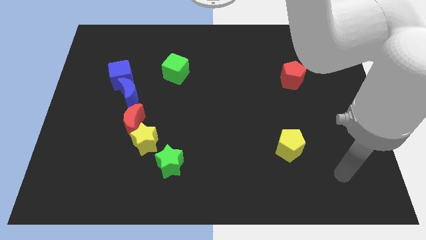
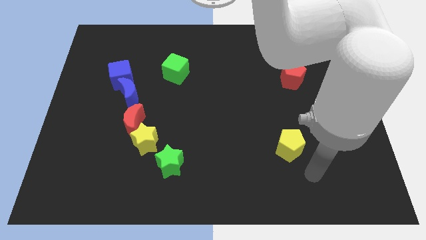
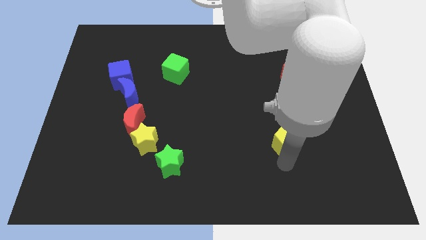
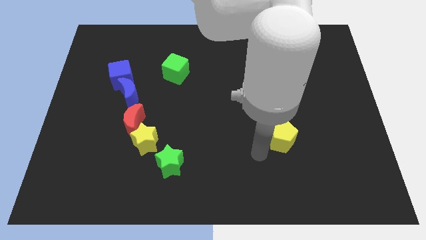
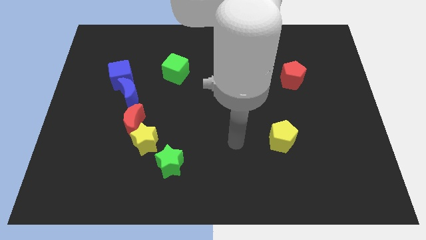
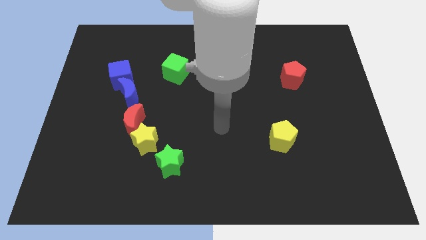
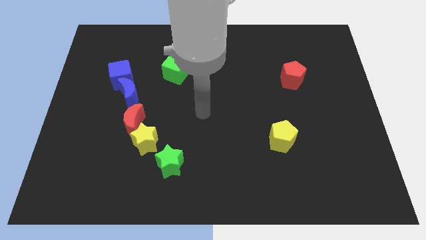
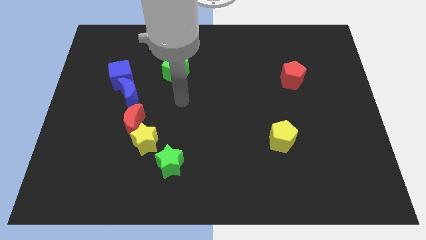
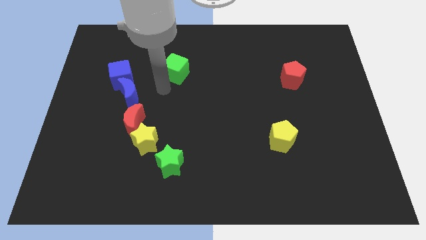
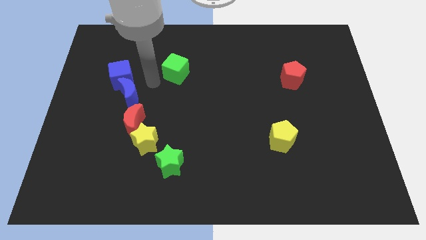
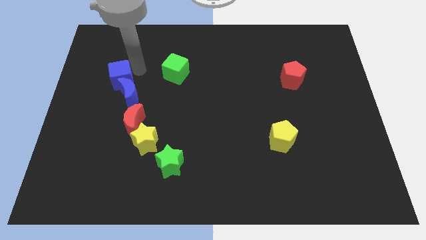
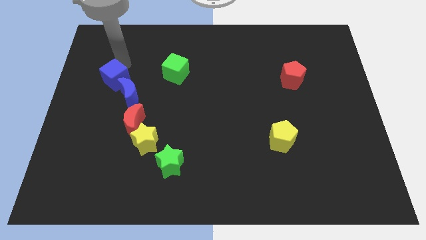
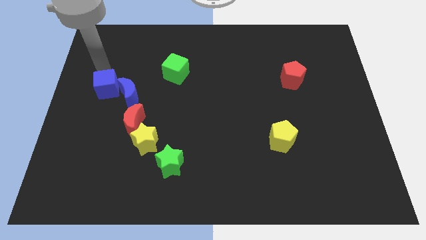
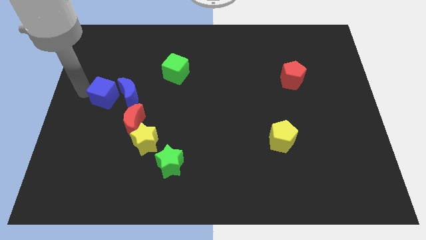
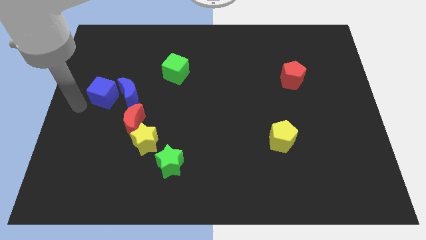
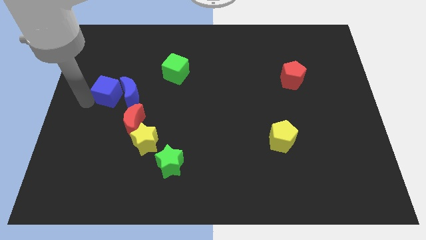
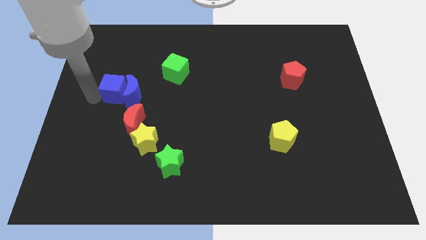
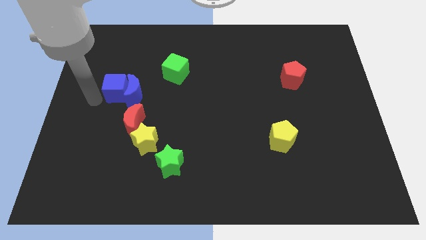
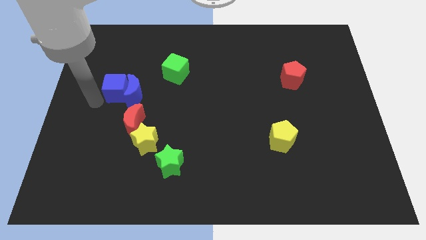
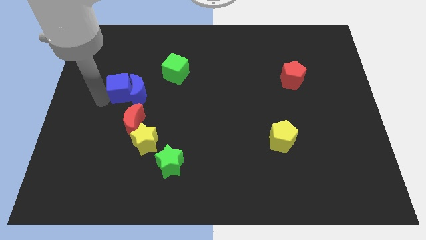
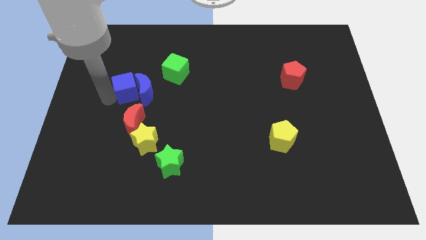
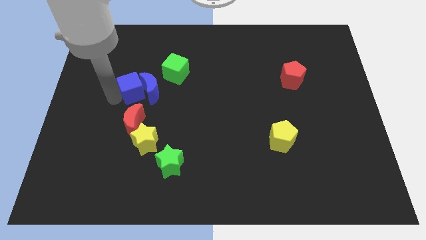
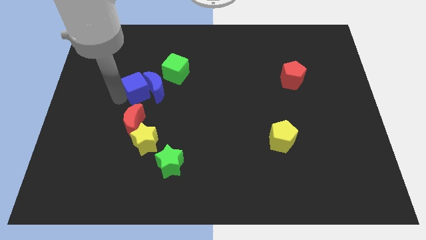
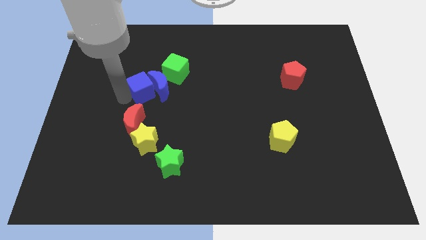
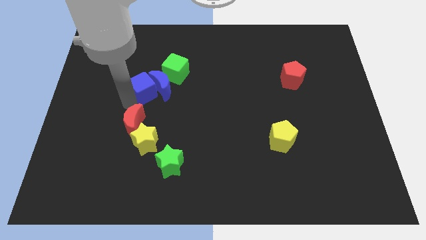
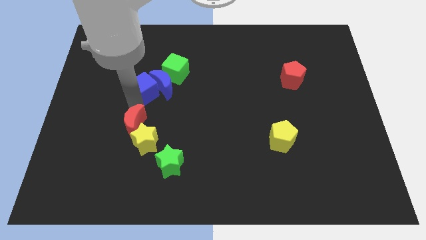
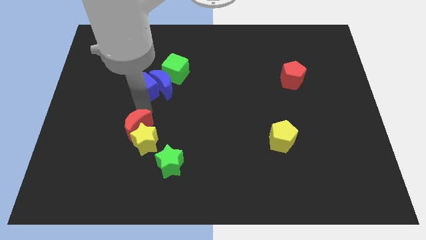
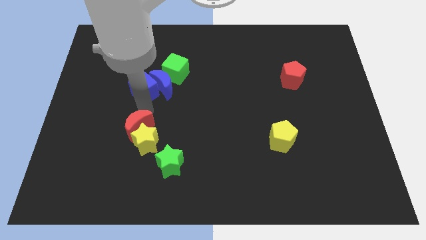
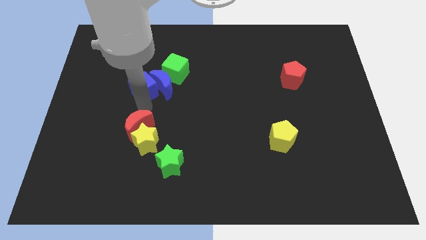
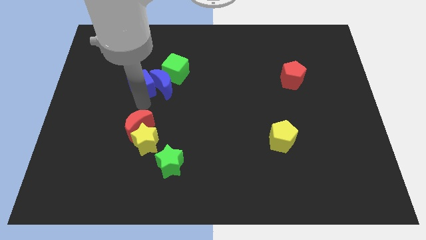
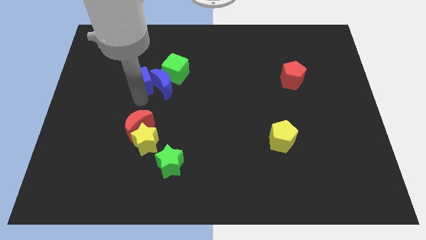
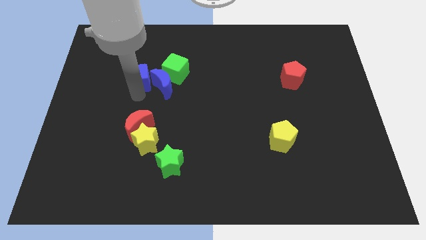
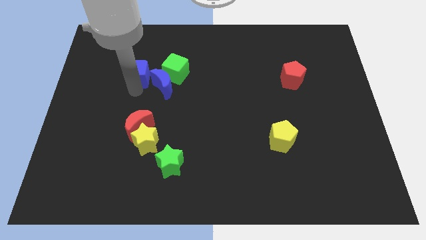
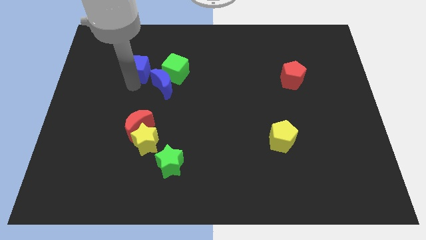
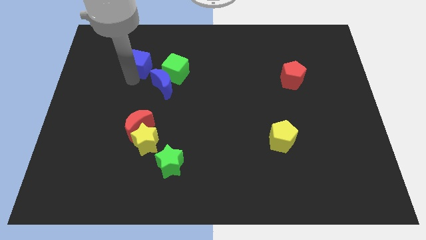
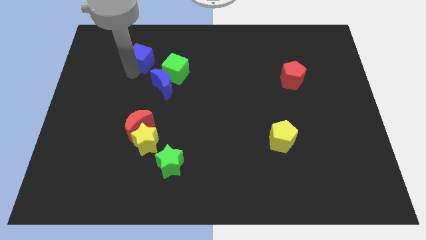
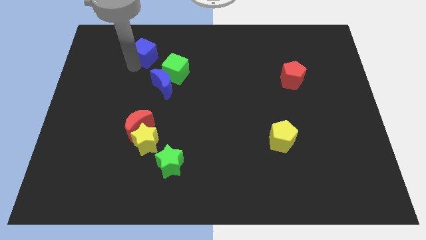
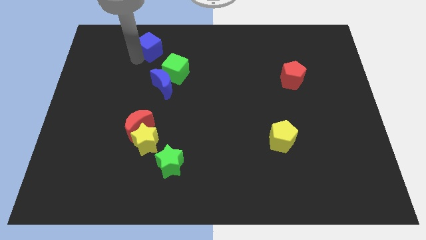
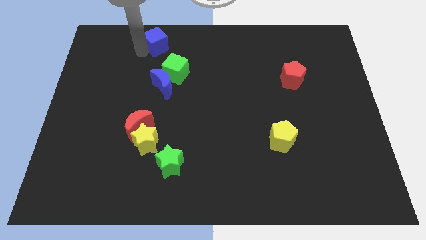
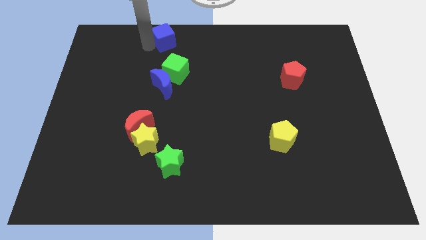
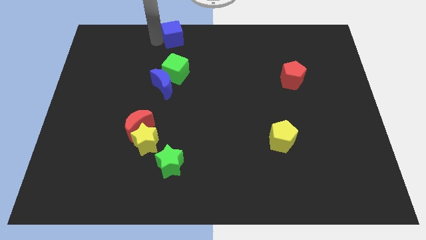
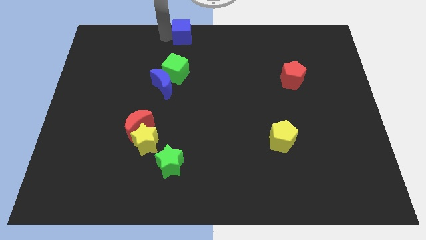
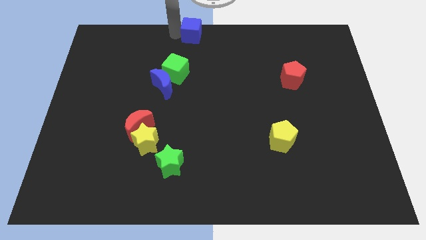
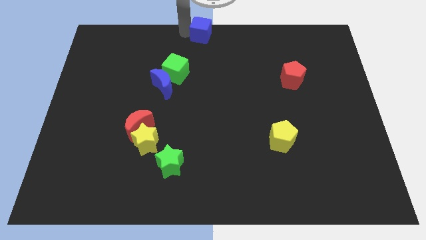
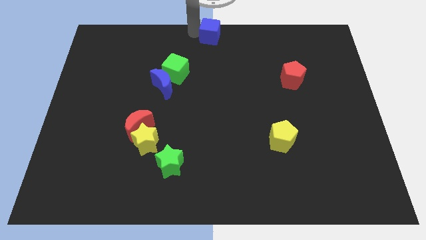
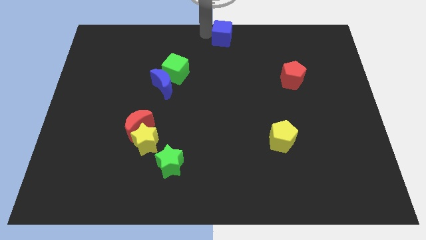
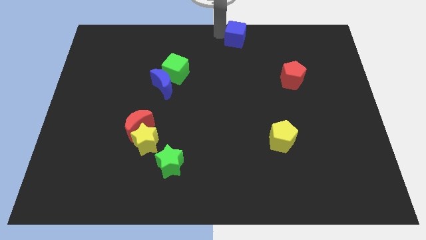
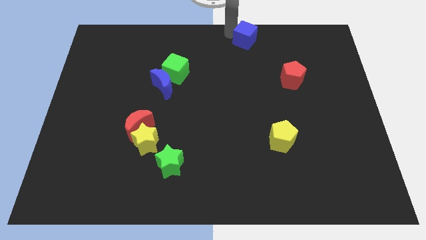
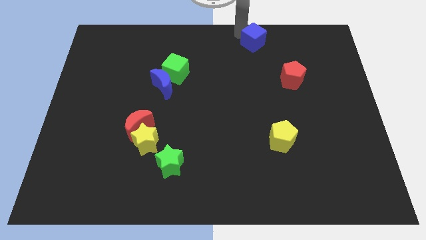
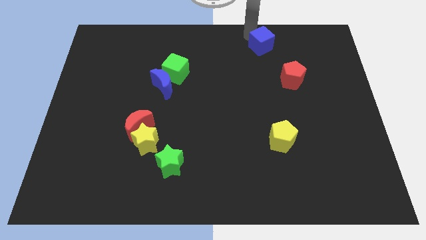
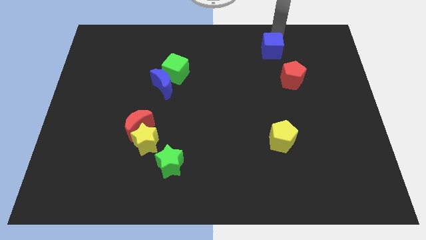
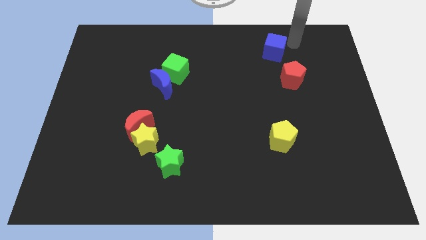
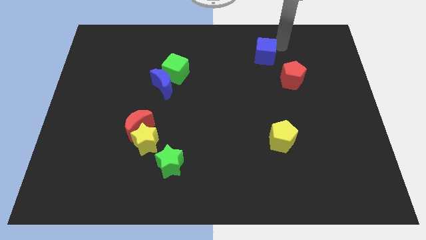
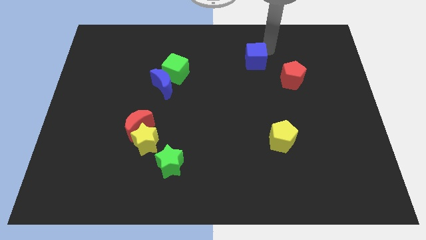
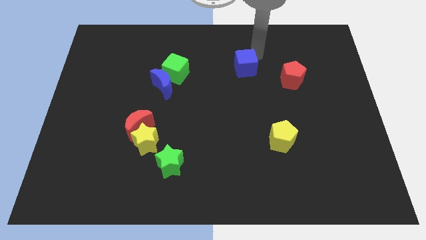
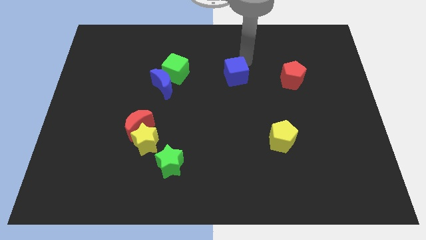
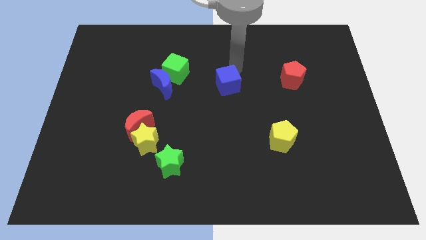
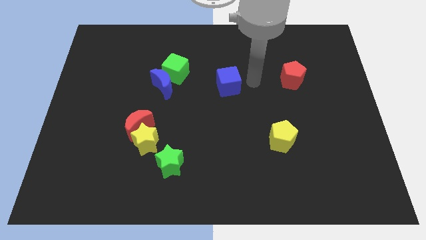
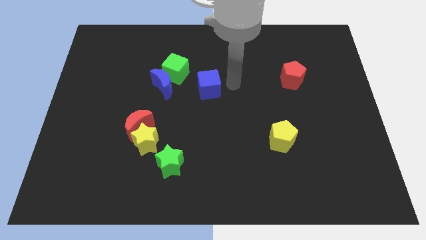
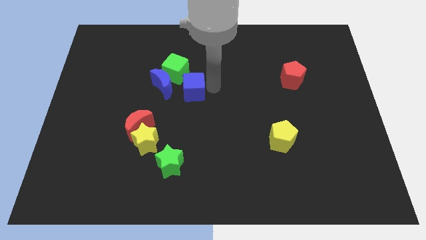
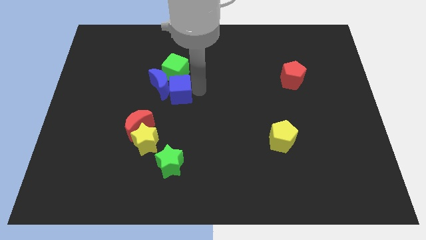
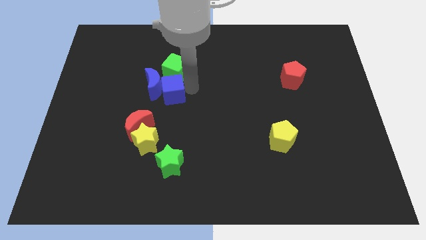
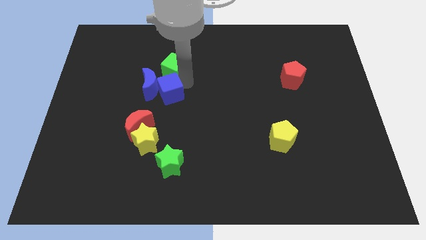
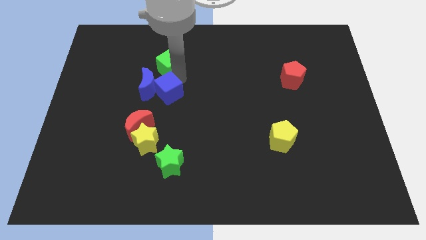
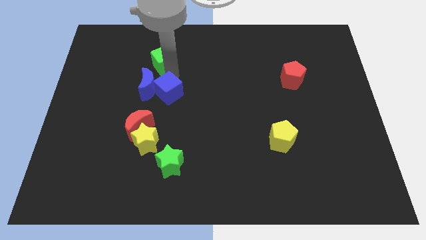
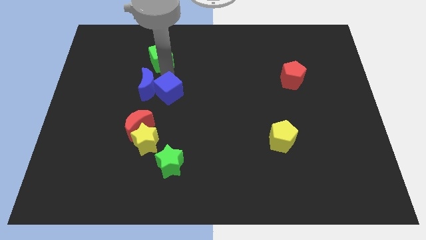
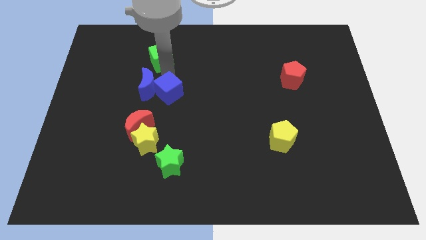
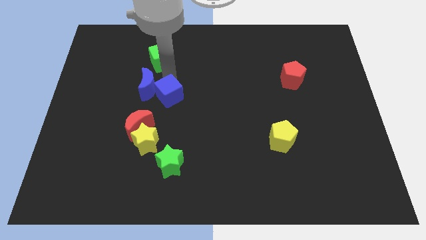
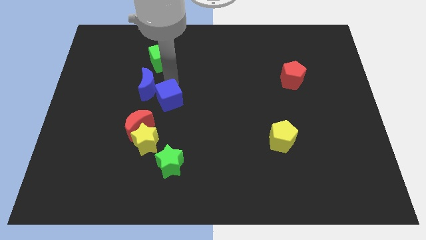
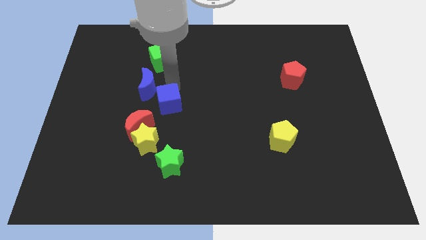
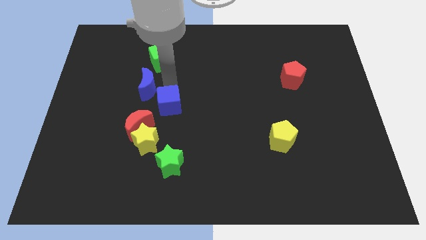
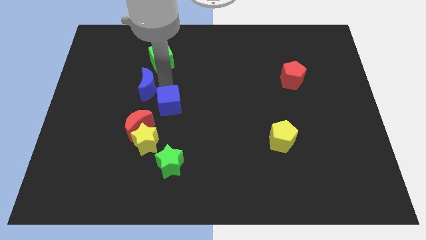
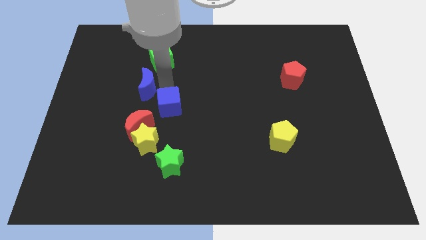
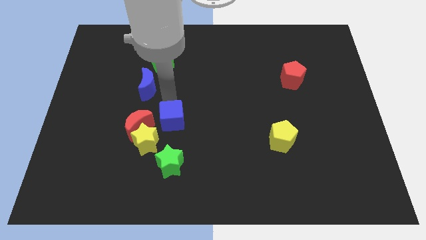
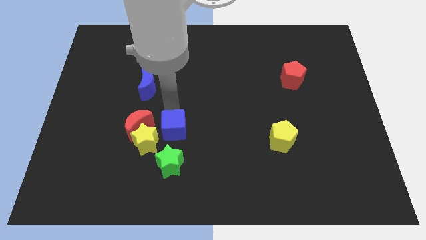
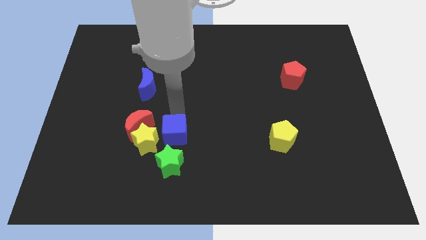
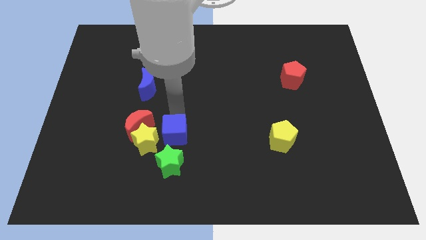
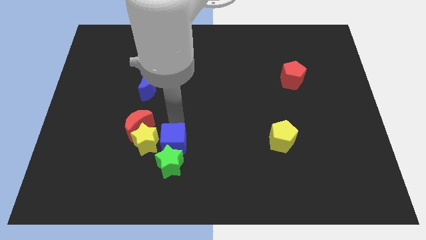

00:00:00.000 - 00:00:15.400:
slide the blue cube towards the green star
